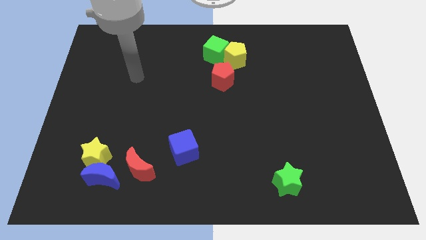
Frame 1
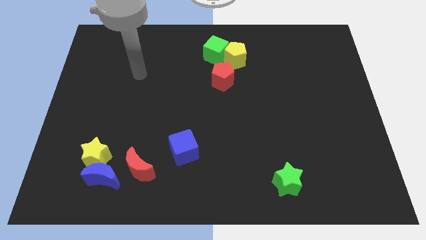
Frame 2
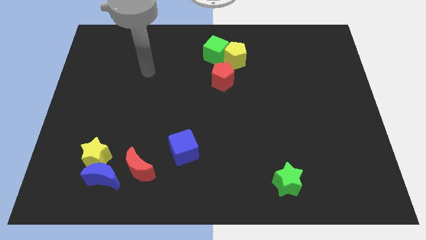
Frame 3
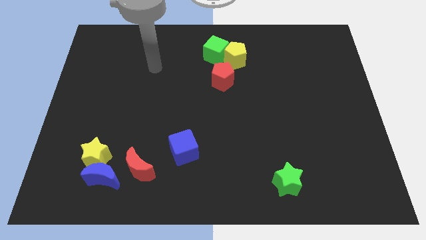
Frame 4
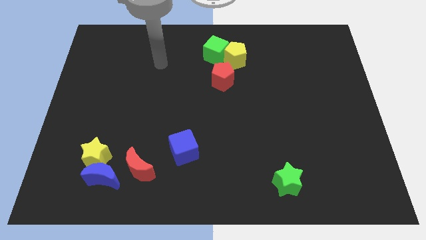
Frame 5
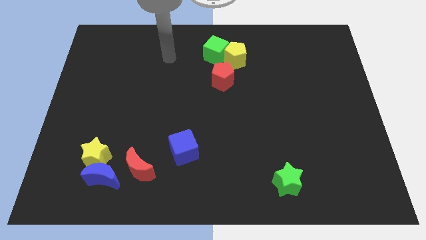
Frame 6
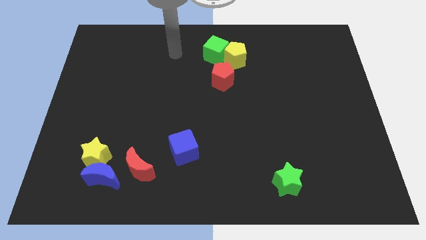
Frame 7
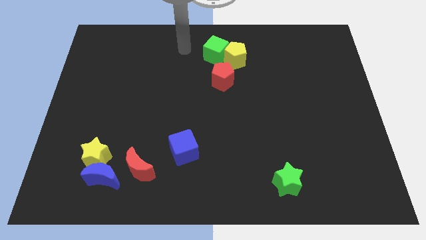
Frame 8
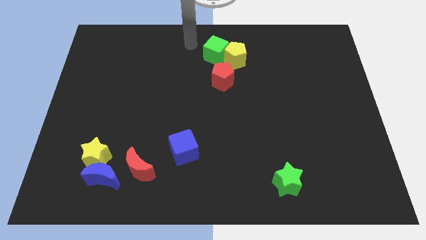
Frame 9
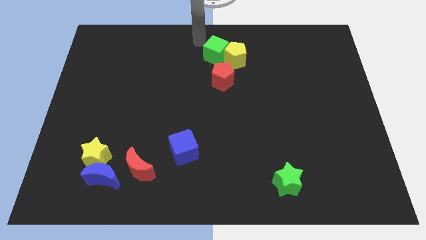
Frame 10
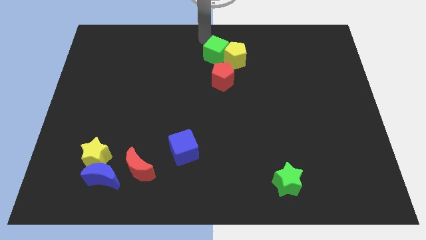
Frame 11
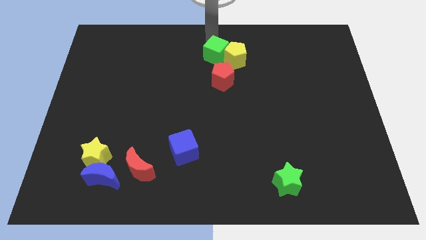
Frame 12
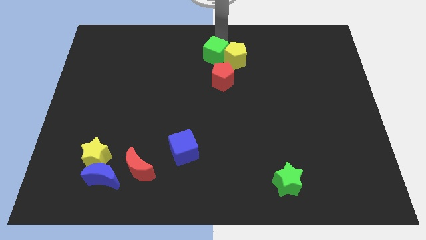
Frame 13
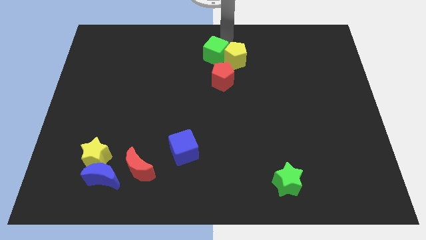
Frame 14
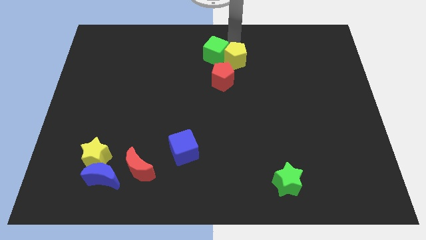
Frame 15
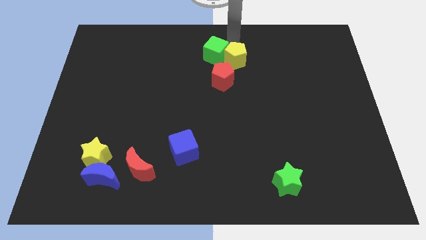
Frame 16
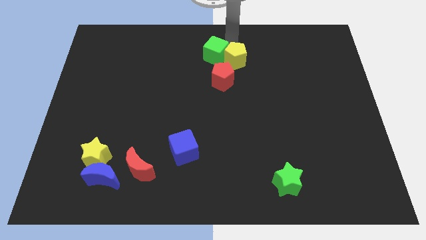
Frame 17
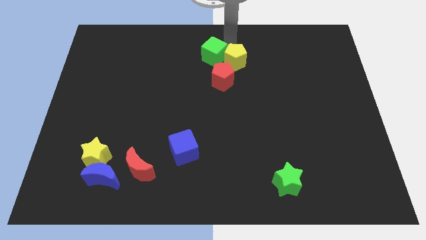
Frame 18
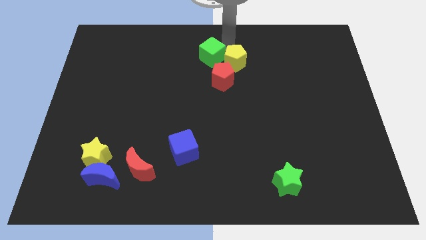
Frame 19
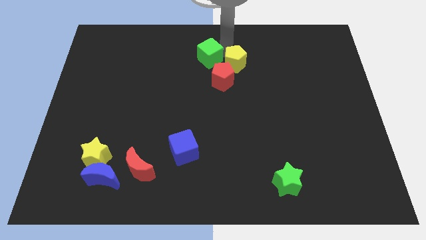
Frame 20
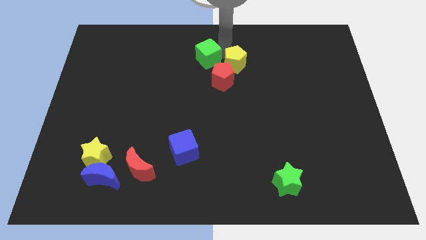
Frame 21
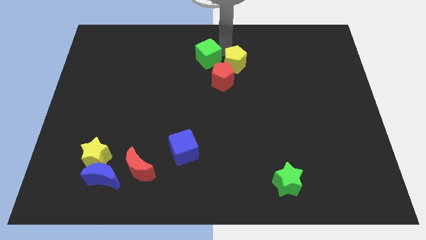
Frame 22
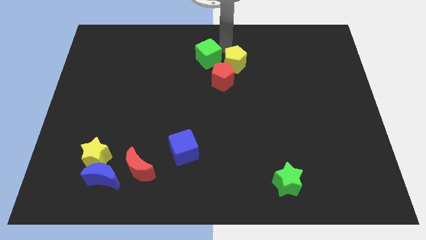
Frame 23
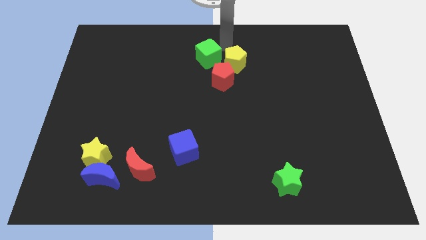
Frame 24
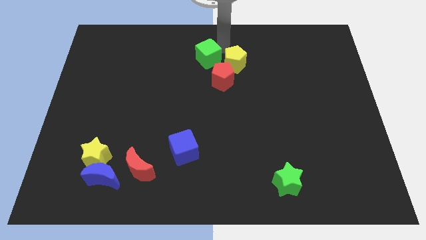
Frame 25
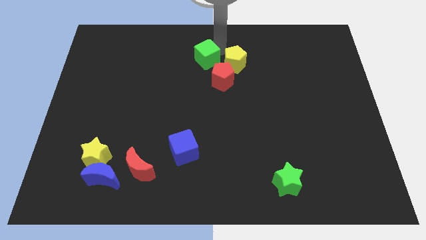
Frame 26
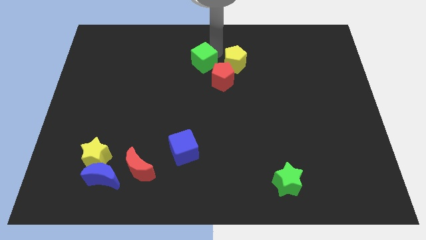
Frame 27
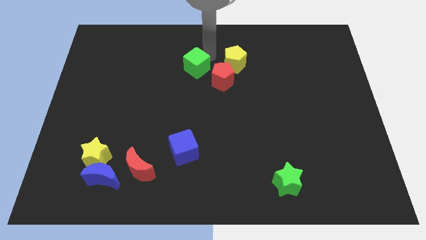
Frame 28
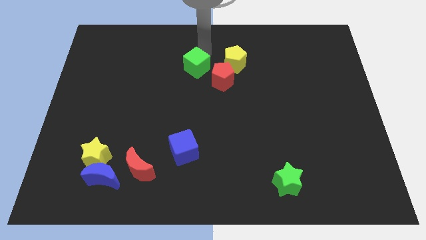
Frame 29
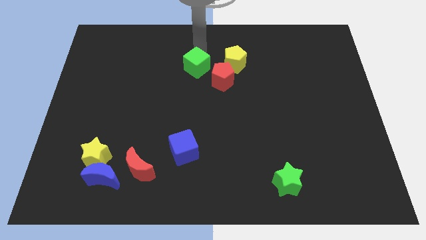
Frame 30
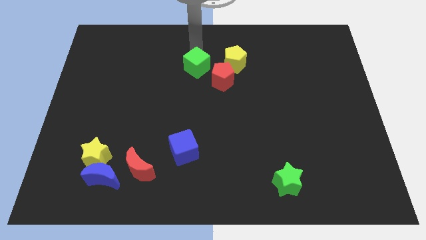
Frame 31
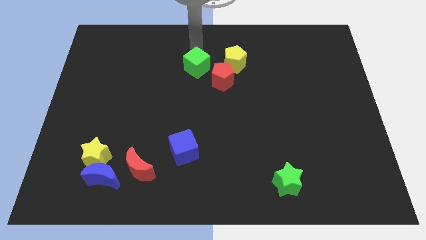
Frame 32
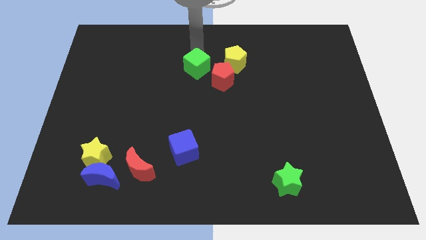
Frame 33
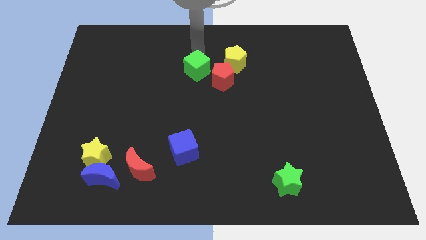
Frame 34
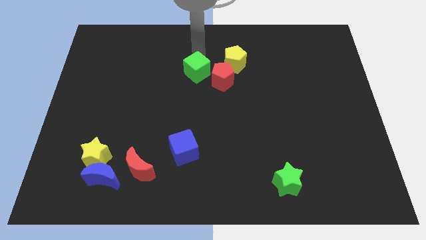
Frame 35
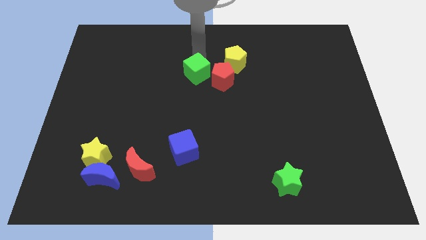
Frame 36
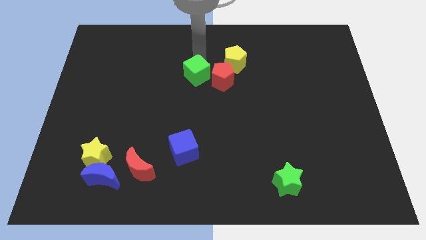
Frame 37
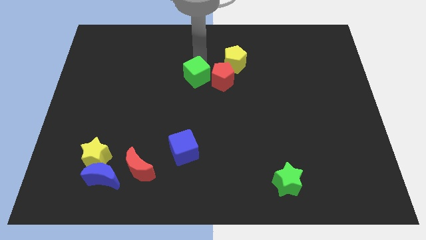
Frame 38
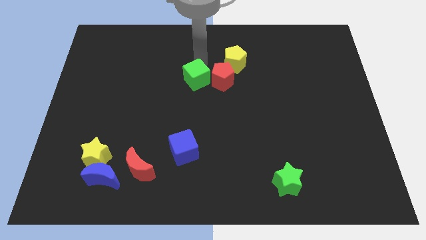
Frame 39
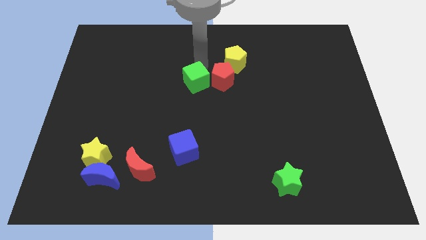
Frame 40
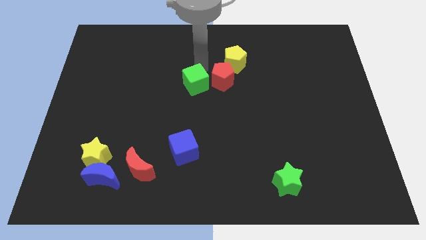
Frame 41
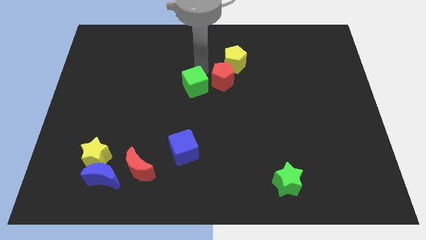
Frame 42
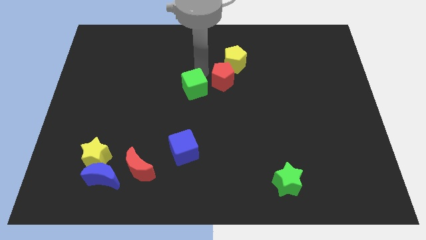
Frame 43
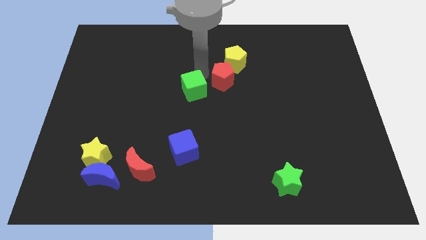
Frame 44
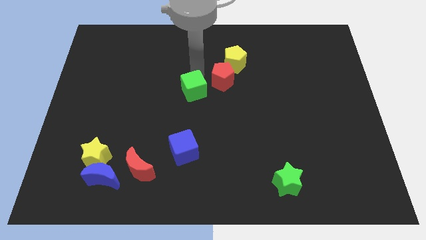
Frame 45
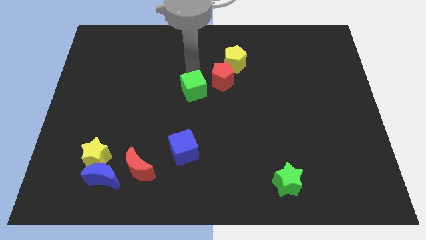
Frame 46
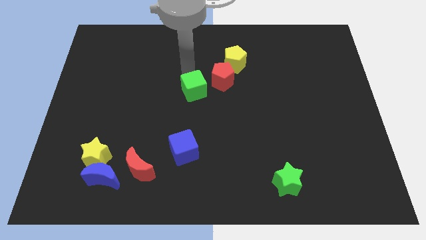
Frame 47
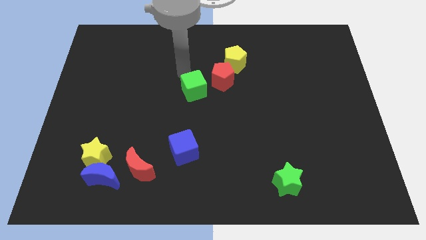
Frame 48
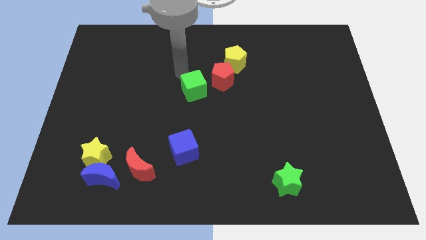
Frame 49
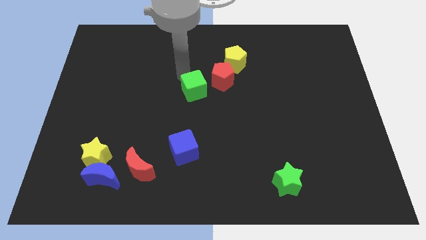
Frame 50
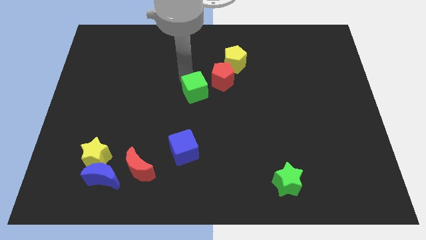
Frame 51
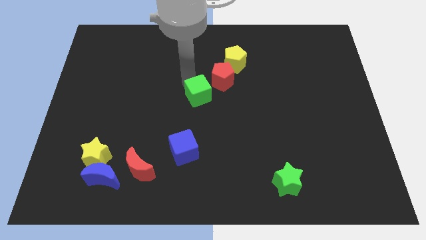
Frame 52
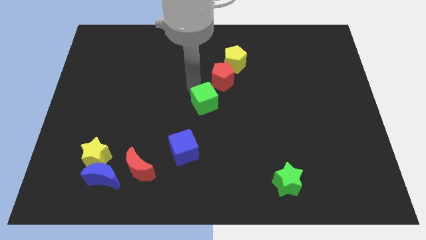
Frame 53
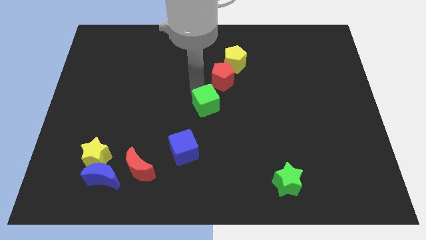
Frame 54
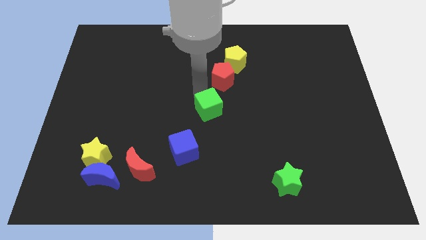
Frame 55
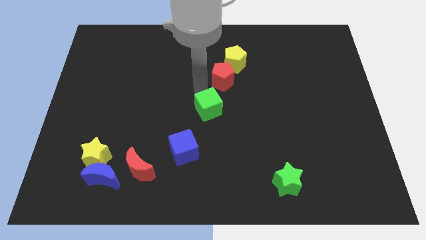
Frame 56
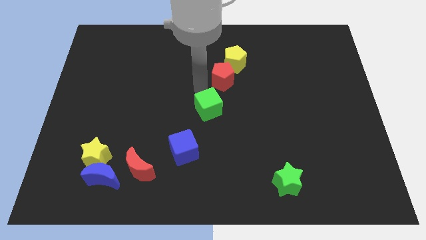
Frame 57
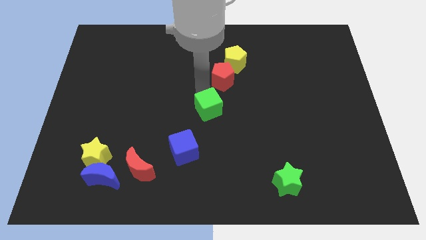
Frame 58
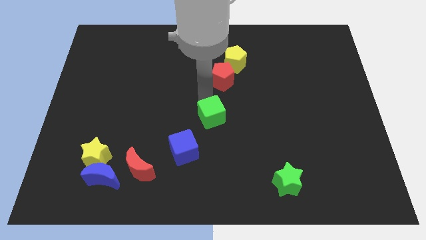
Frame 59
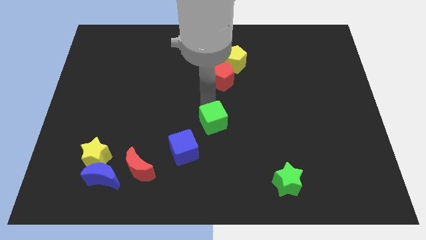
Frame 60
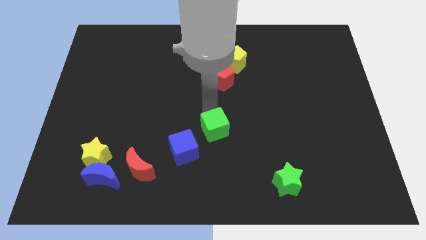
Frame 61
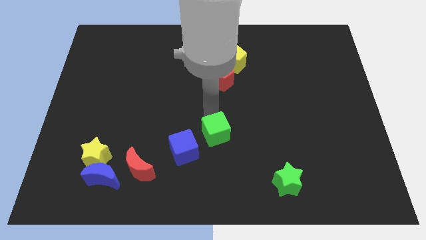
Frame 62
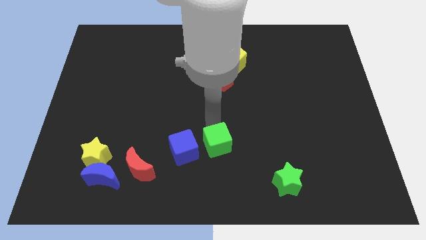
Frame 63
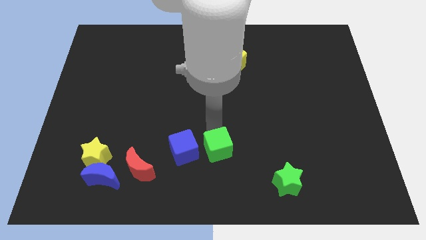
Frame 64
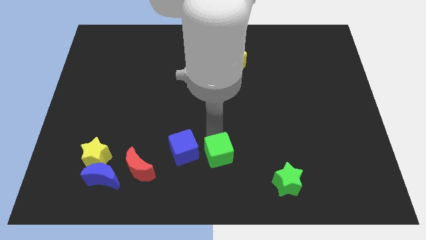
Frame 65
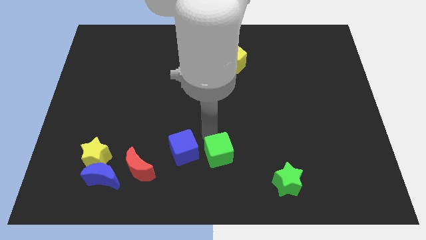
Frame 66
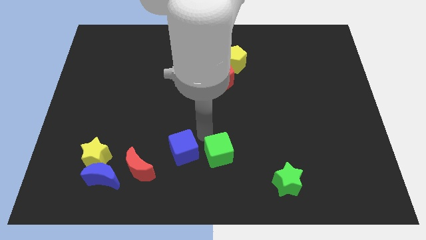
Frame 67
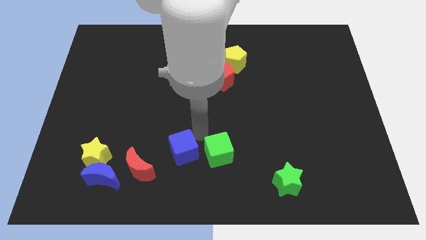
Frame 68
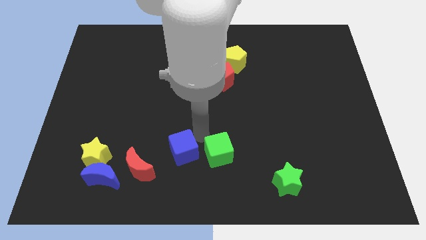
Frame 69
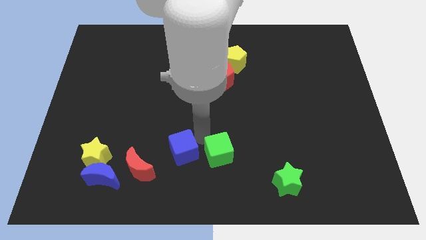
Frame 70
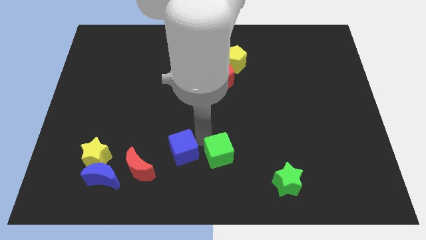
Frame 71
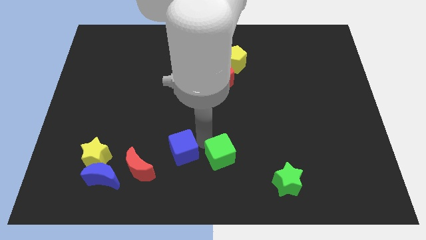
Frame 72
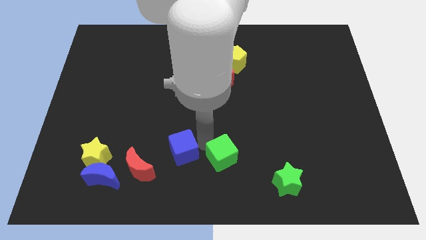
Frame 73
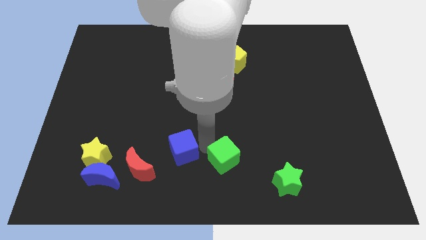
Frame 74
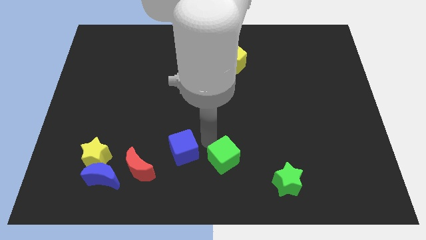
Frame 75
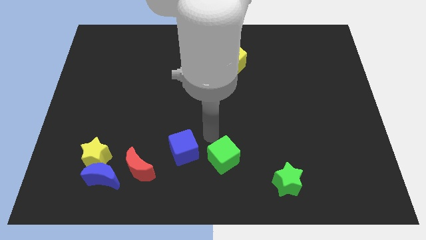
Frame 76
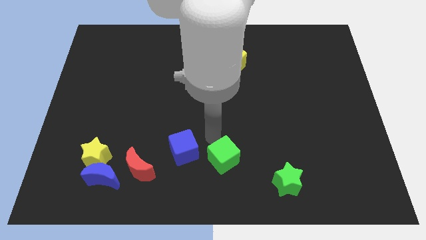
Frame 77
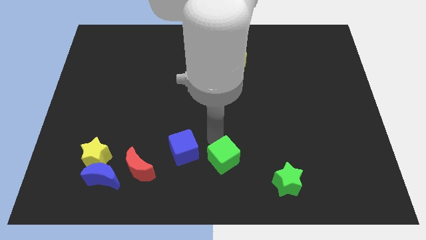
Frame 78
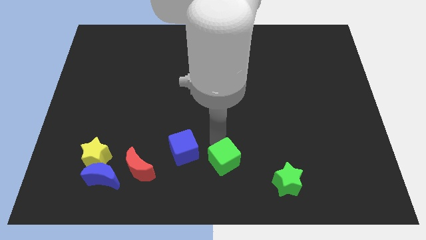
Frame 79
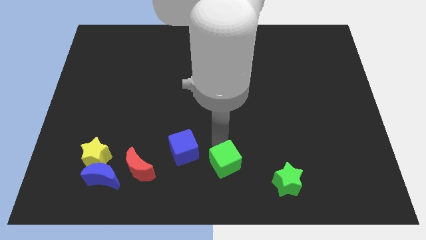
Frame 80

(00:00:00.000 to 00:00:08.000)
slide the green cube to the left side of the green star
